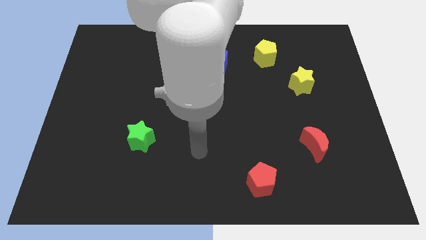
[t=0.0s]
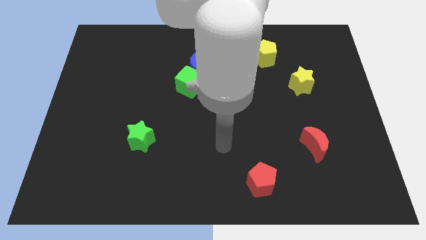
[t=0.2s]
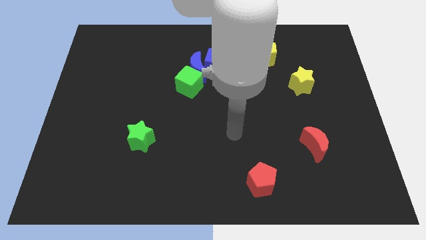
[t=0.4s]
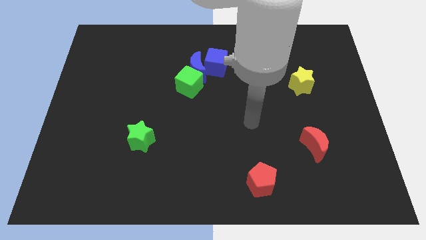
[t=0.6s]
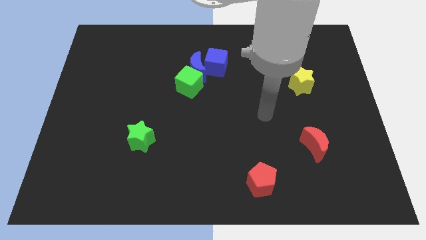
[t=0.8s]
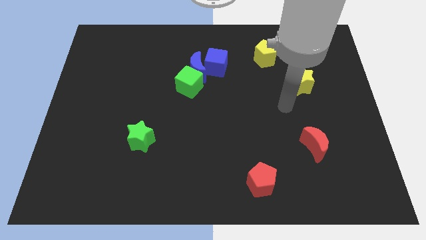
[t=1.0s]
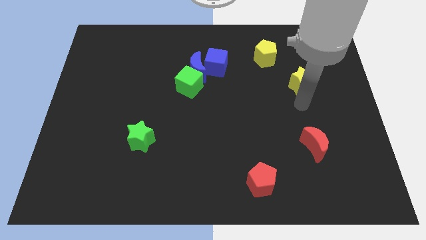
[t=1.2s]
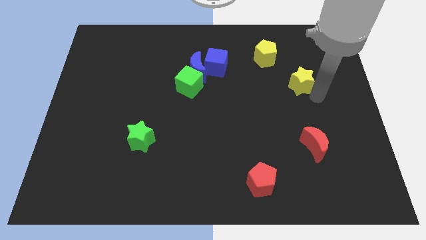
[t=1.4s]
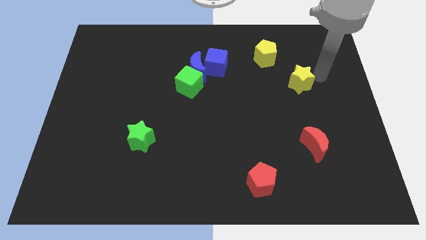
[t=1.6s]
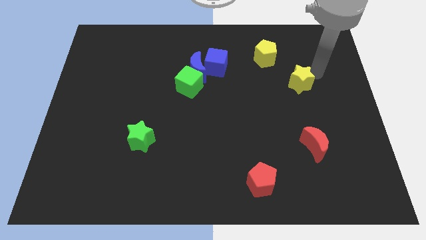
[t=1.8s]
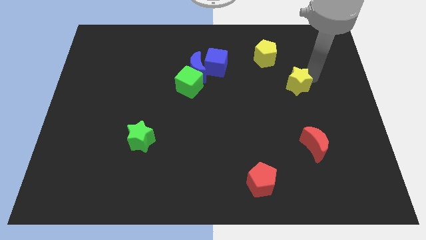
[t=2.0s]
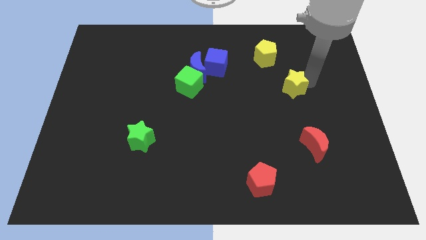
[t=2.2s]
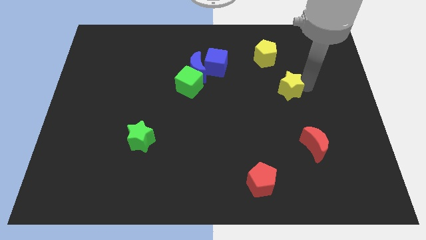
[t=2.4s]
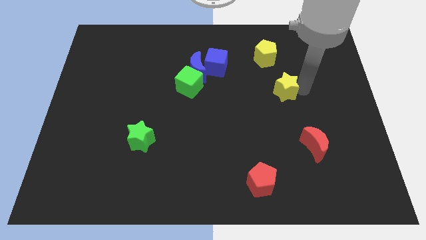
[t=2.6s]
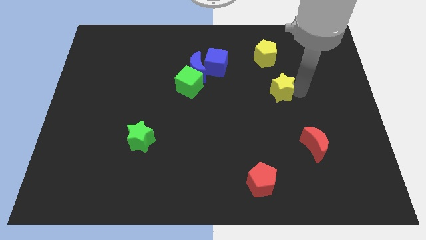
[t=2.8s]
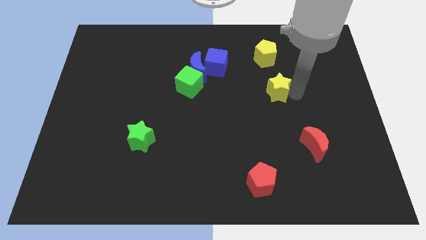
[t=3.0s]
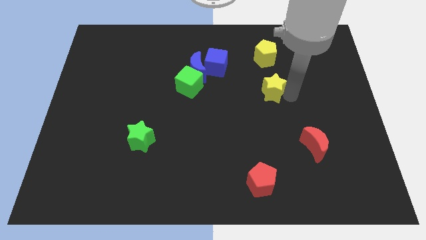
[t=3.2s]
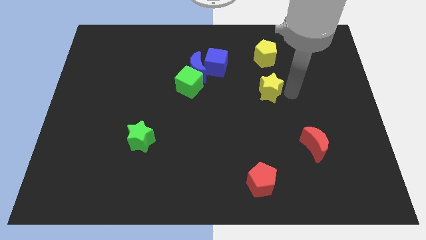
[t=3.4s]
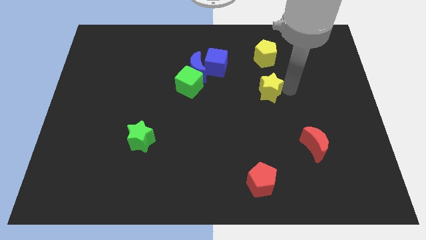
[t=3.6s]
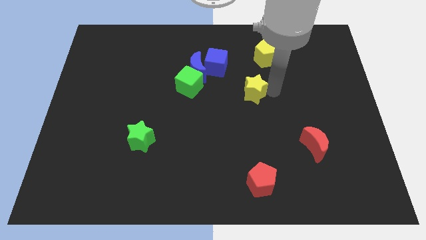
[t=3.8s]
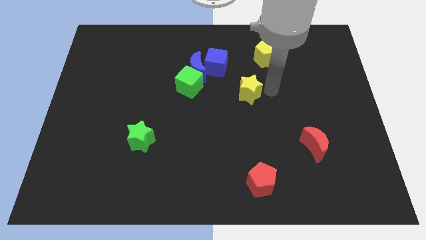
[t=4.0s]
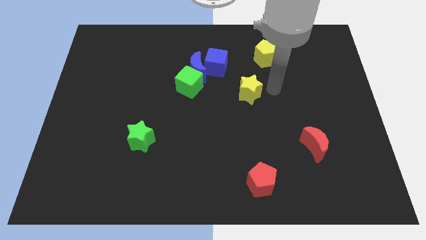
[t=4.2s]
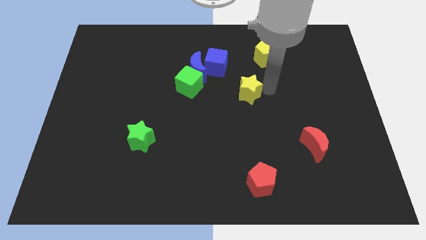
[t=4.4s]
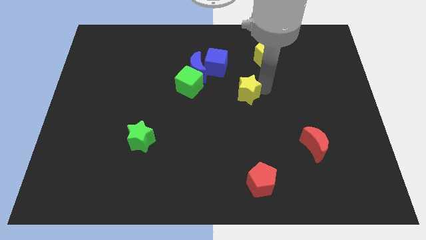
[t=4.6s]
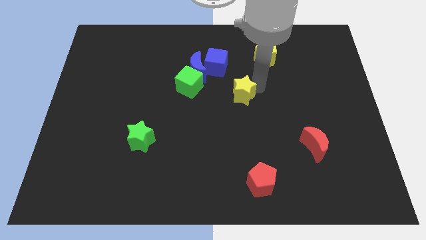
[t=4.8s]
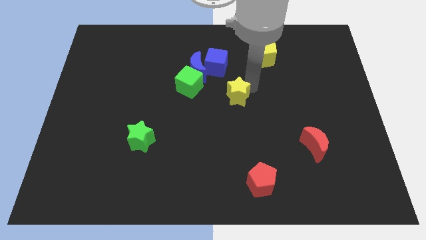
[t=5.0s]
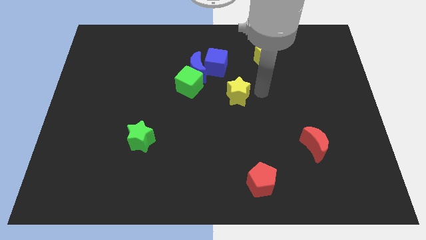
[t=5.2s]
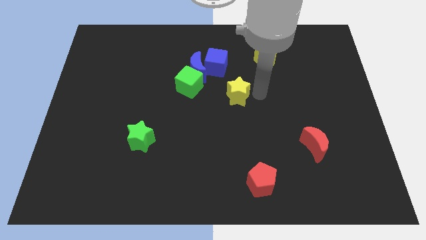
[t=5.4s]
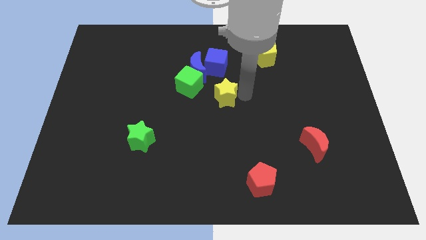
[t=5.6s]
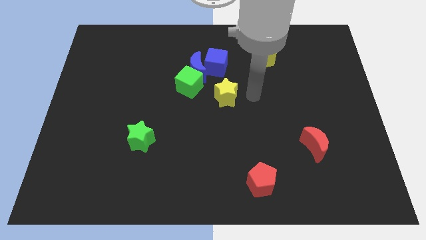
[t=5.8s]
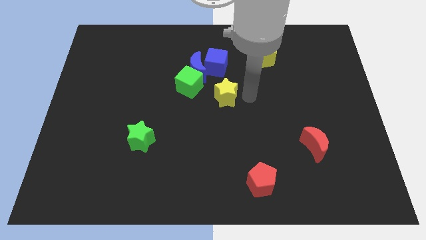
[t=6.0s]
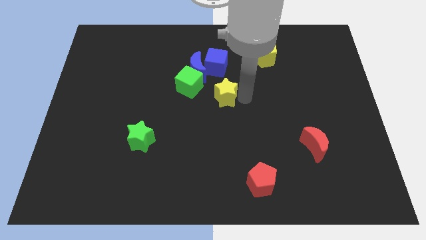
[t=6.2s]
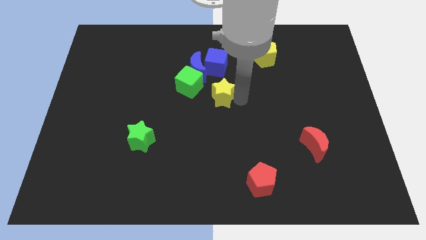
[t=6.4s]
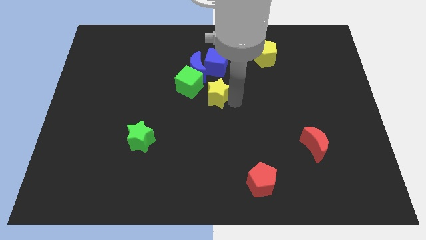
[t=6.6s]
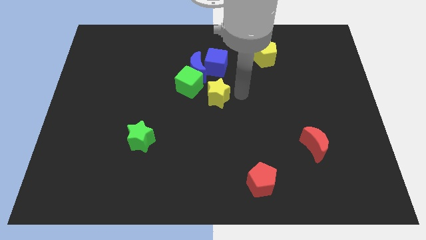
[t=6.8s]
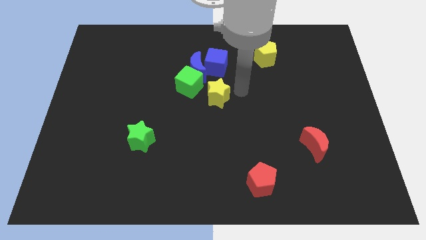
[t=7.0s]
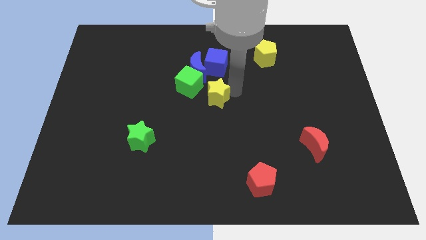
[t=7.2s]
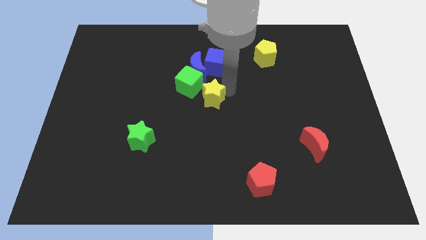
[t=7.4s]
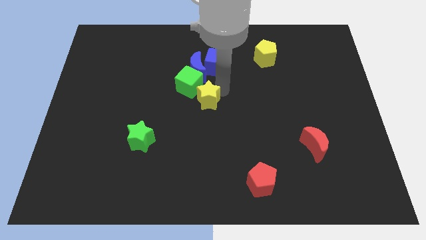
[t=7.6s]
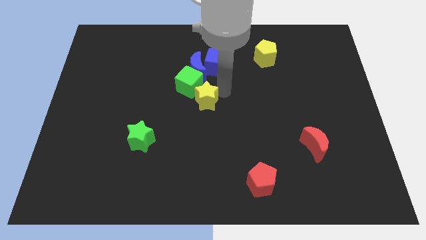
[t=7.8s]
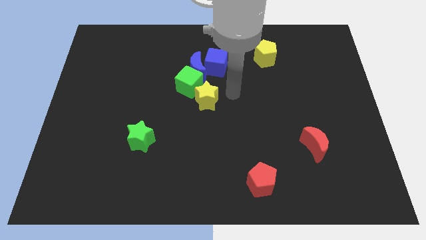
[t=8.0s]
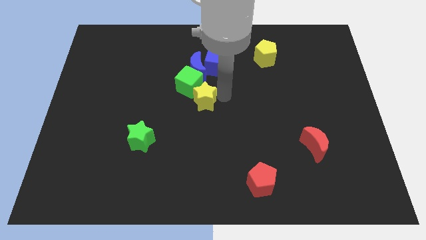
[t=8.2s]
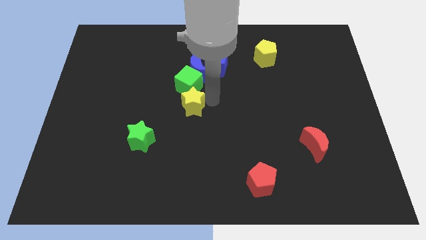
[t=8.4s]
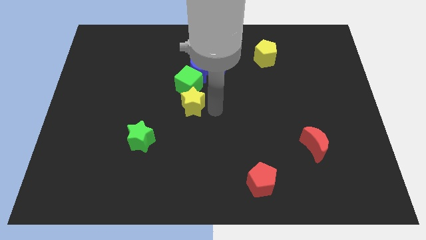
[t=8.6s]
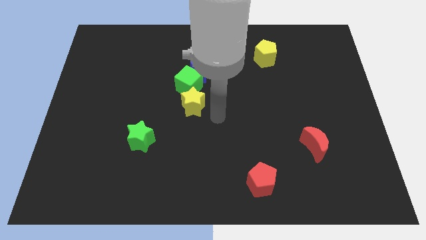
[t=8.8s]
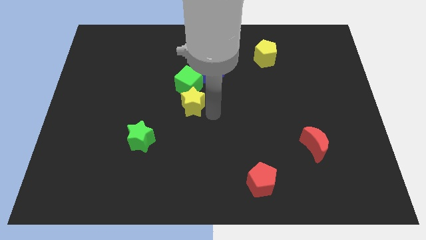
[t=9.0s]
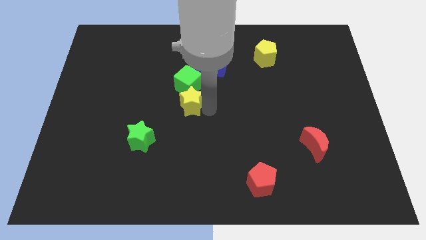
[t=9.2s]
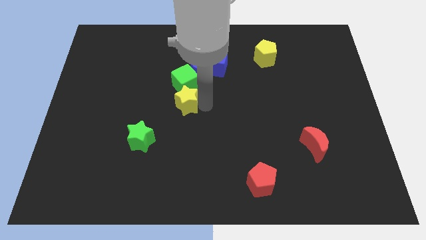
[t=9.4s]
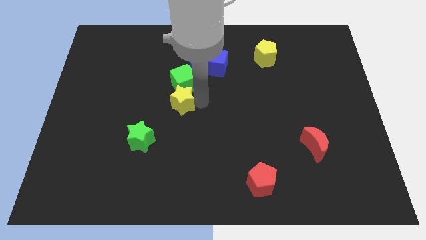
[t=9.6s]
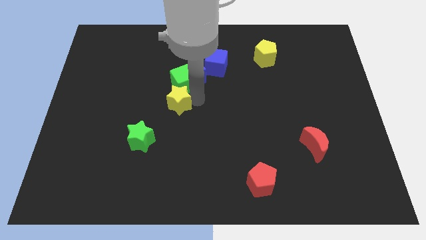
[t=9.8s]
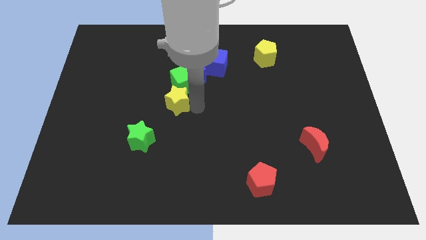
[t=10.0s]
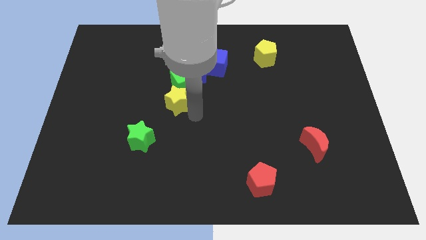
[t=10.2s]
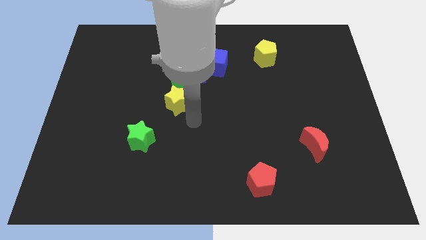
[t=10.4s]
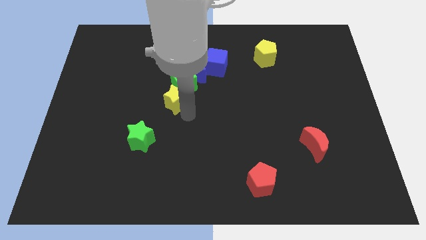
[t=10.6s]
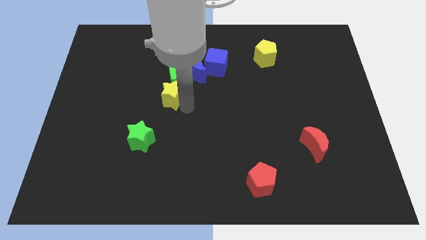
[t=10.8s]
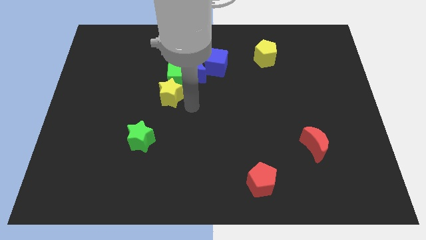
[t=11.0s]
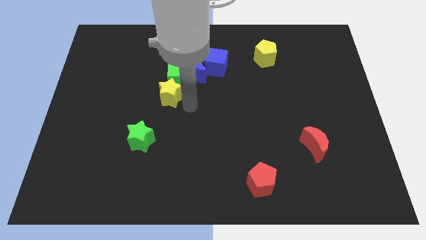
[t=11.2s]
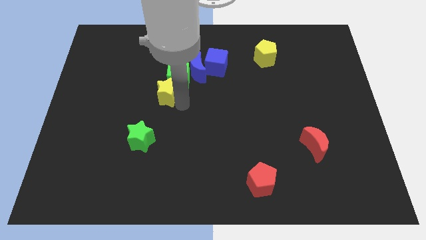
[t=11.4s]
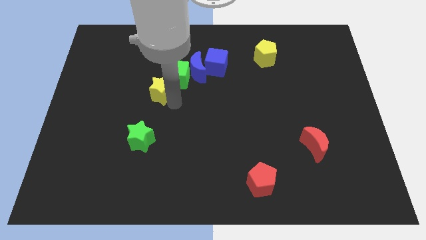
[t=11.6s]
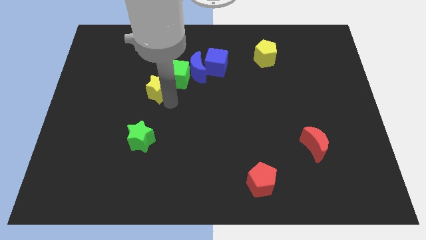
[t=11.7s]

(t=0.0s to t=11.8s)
push the yellow star to the left of the green cube

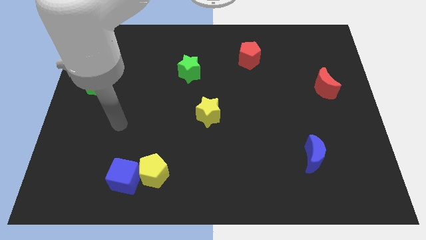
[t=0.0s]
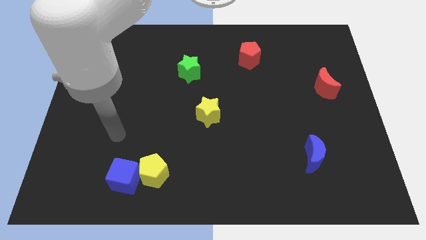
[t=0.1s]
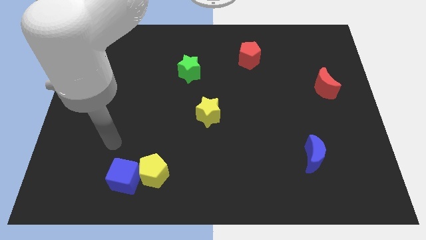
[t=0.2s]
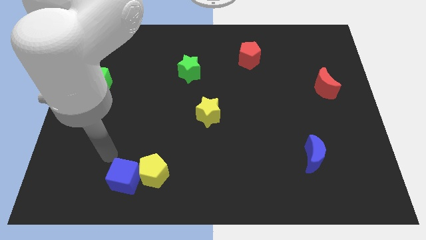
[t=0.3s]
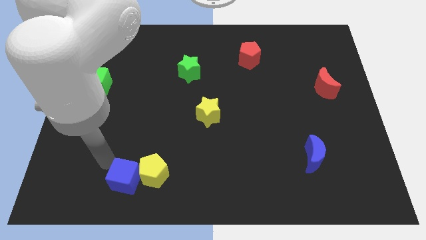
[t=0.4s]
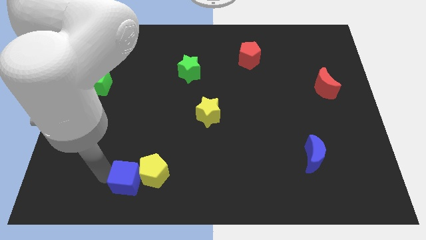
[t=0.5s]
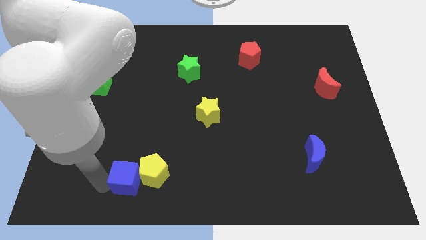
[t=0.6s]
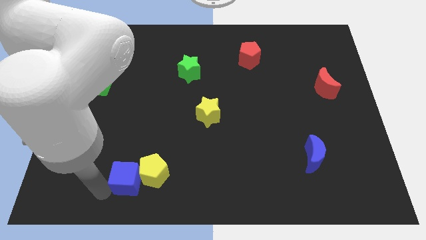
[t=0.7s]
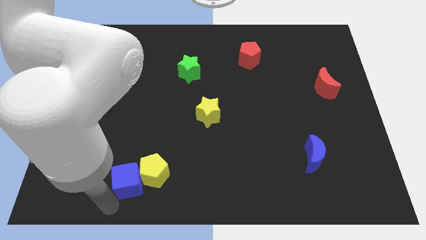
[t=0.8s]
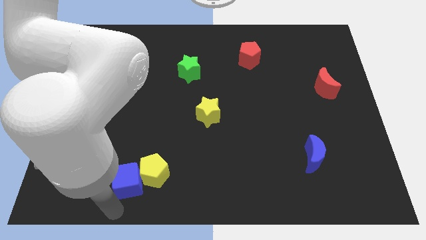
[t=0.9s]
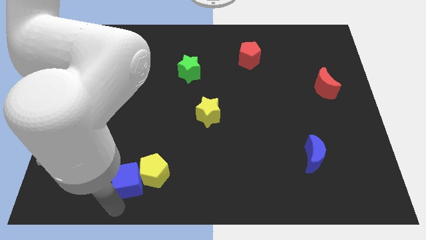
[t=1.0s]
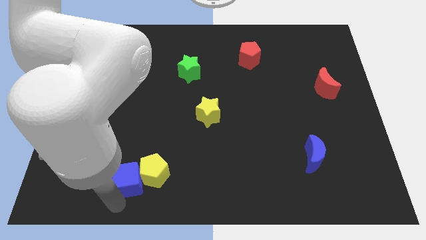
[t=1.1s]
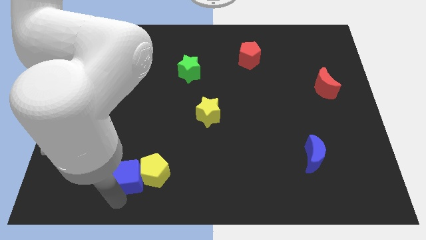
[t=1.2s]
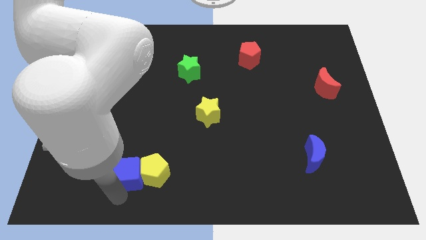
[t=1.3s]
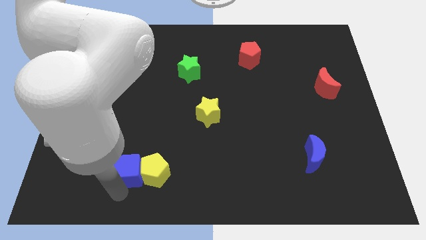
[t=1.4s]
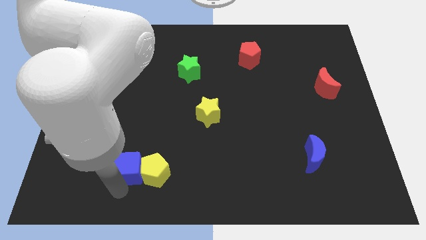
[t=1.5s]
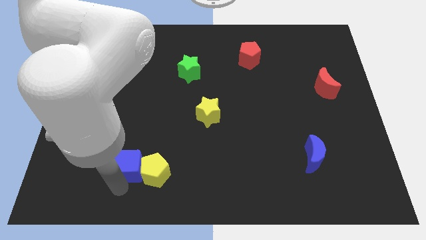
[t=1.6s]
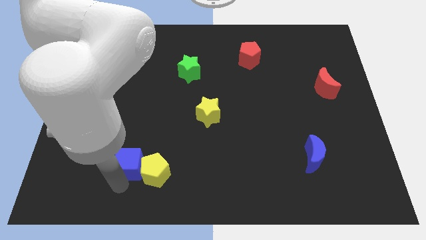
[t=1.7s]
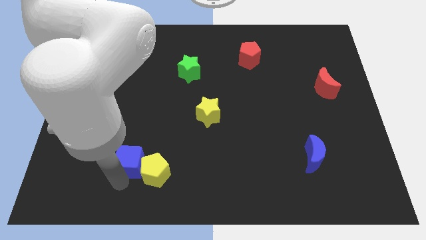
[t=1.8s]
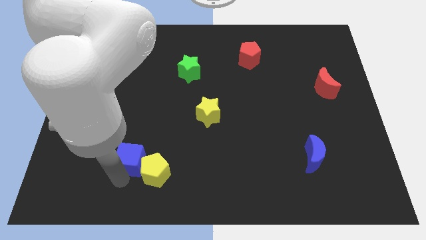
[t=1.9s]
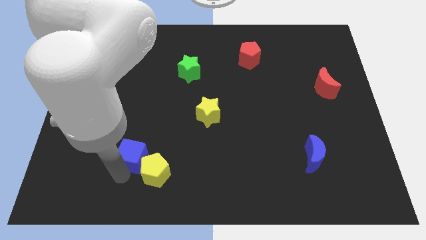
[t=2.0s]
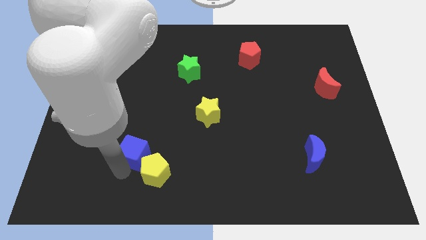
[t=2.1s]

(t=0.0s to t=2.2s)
move the blue cube to the top of the yellow pentagon
